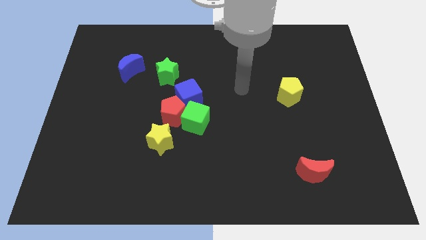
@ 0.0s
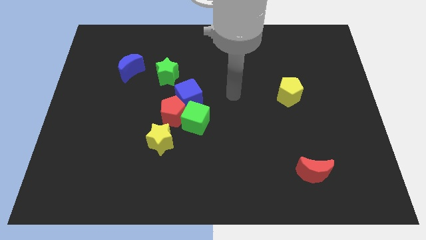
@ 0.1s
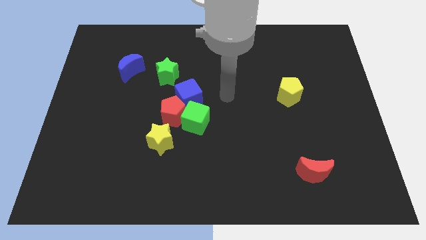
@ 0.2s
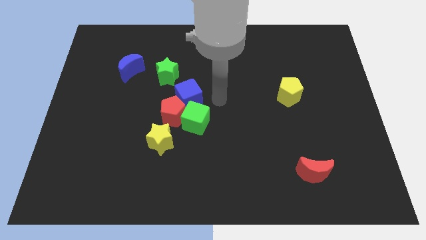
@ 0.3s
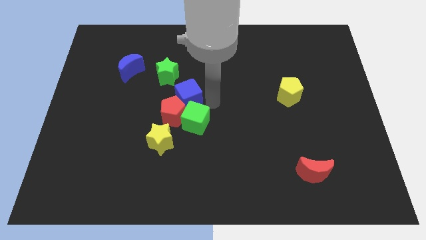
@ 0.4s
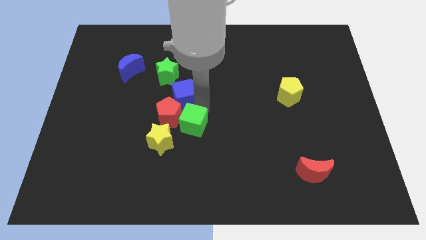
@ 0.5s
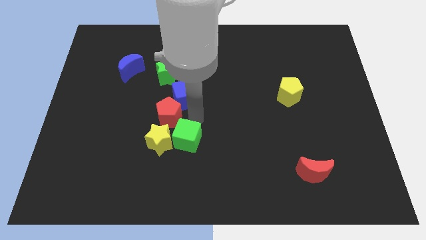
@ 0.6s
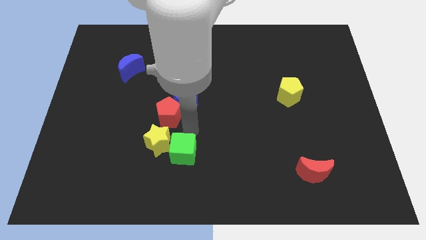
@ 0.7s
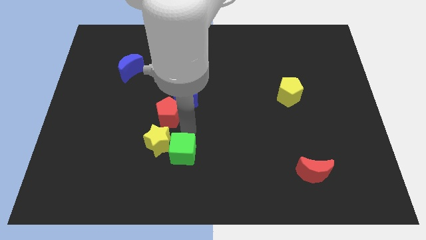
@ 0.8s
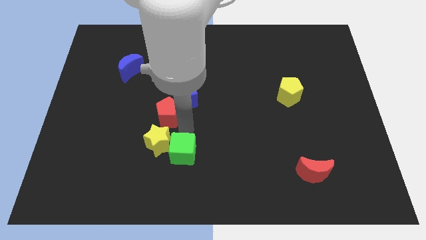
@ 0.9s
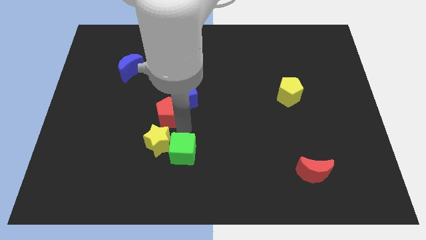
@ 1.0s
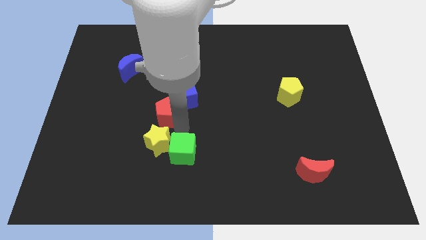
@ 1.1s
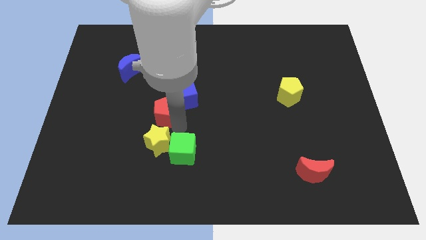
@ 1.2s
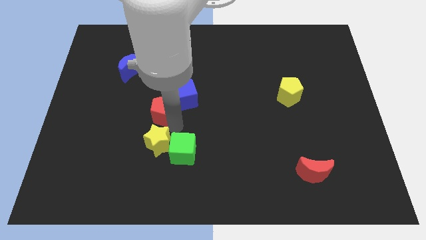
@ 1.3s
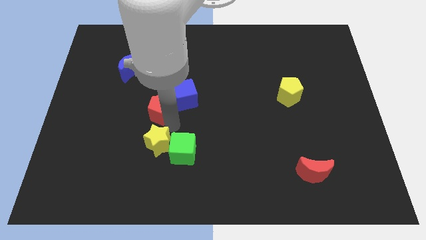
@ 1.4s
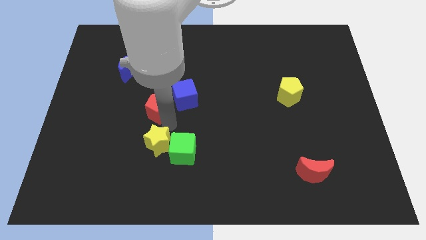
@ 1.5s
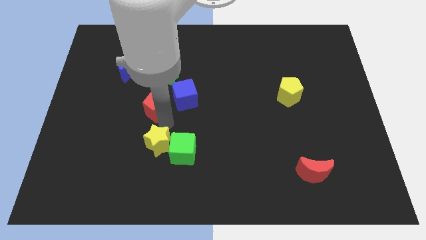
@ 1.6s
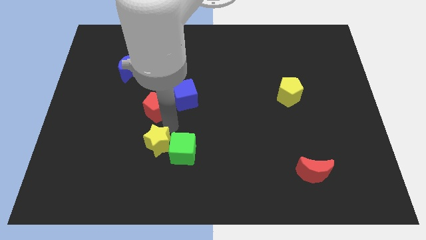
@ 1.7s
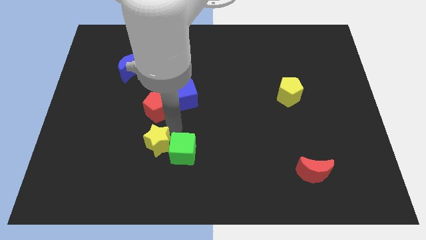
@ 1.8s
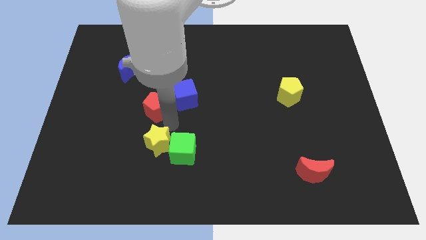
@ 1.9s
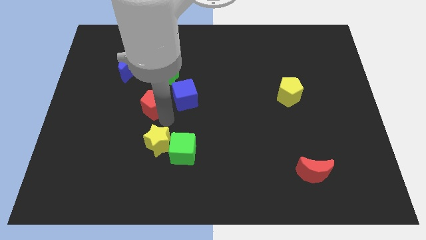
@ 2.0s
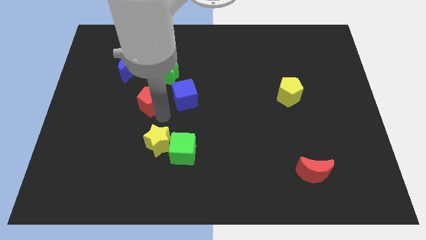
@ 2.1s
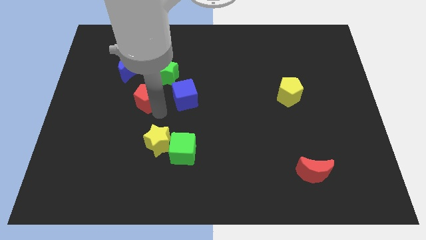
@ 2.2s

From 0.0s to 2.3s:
separate the red pentagon from the green cube, blue cube, and yellow star

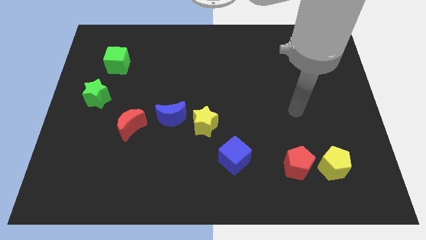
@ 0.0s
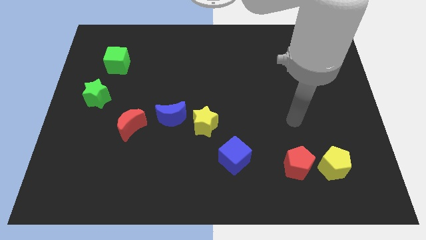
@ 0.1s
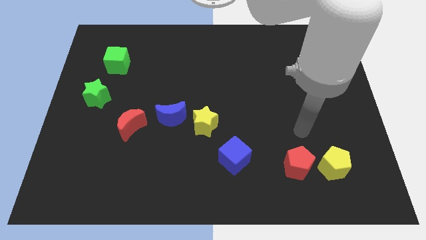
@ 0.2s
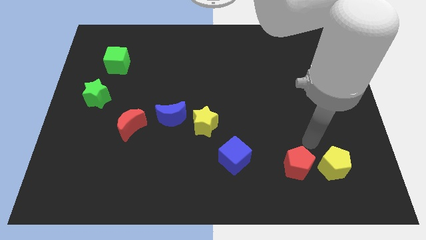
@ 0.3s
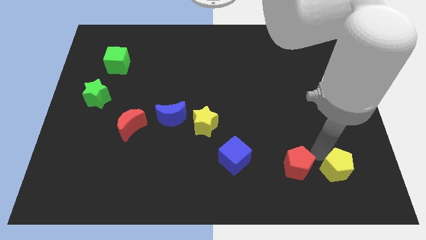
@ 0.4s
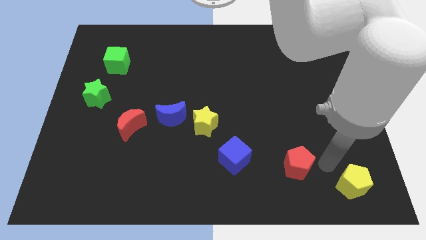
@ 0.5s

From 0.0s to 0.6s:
separate the red pentagon from the yellow pentagon

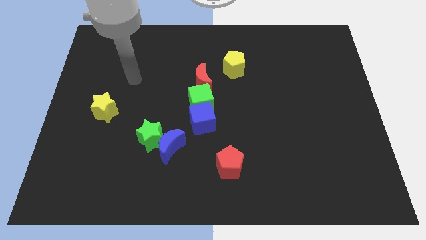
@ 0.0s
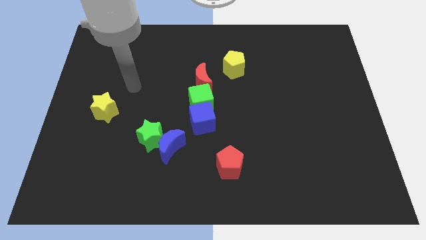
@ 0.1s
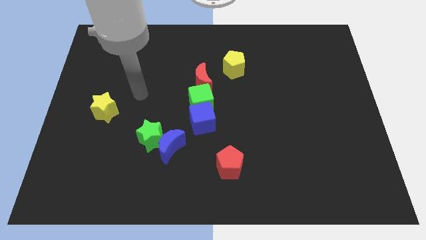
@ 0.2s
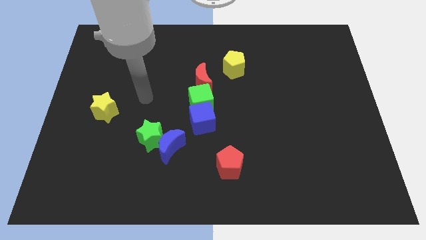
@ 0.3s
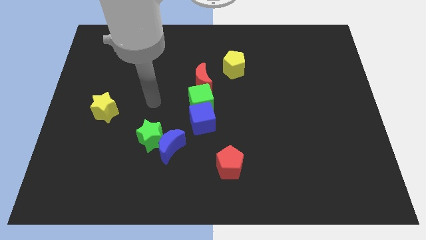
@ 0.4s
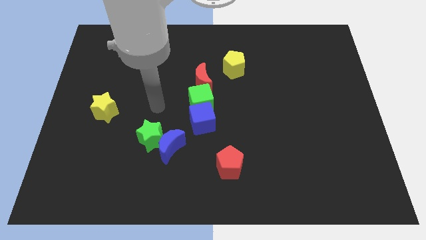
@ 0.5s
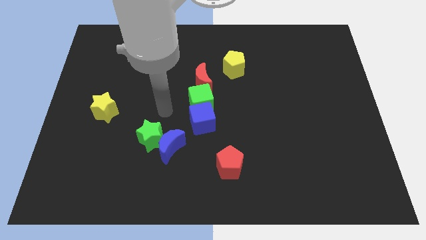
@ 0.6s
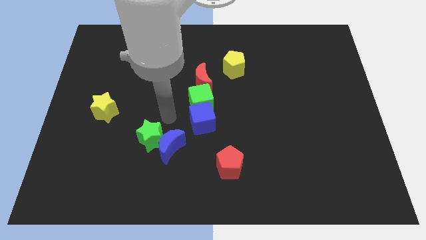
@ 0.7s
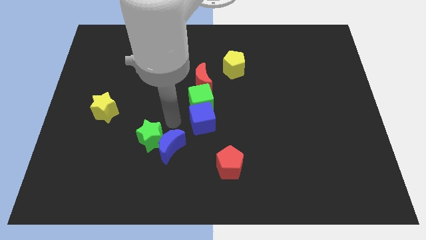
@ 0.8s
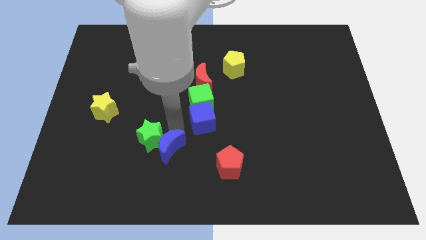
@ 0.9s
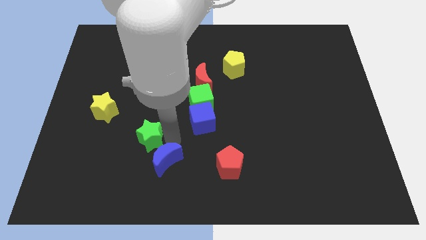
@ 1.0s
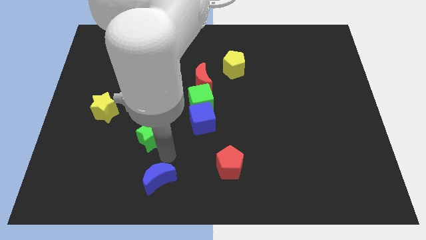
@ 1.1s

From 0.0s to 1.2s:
move the green star away from the blue moon

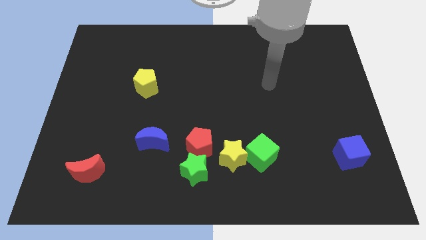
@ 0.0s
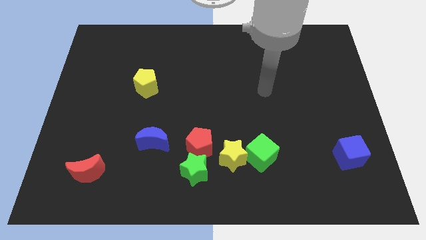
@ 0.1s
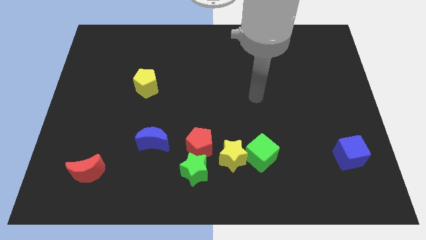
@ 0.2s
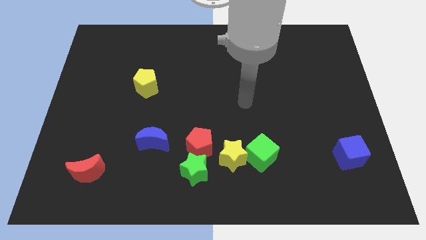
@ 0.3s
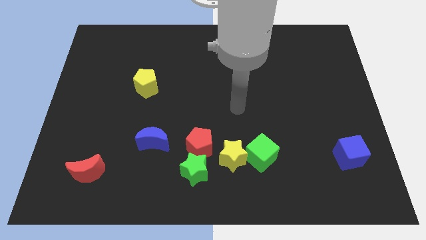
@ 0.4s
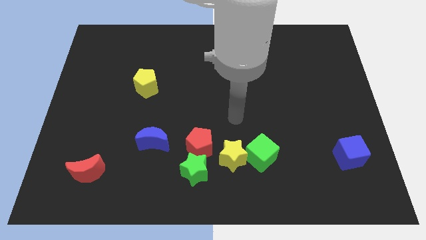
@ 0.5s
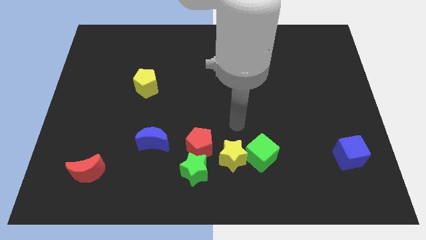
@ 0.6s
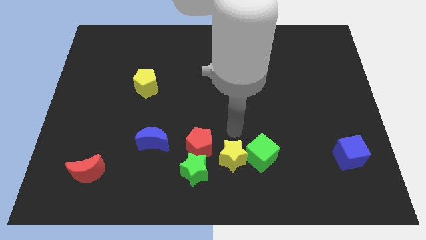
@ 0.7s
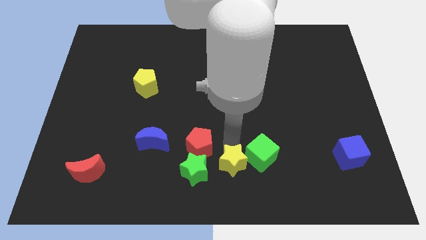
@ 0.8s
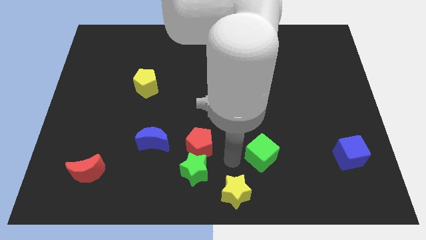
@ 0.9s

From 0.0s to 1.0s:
separate the green cube from the yellow star

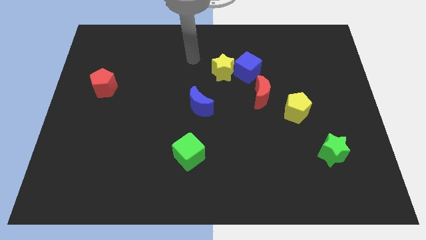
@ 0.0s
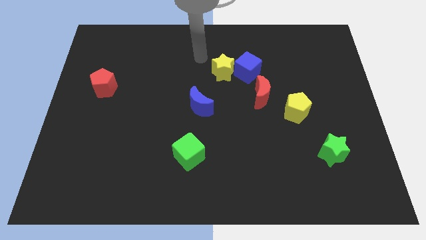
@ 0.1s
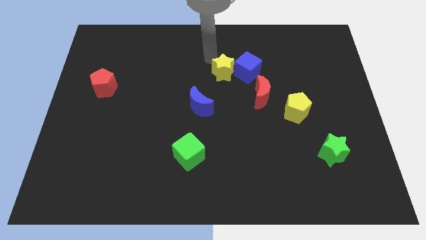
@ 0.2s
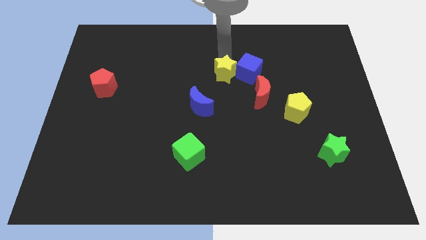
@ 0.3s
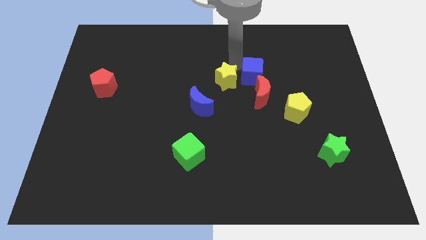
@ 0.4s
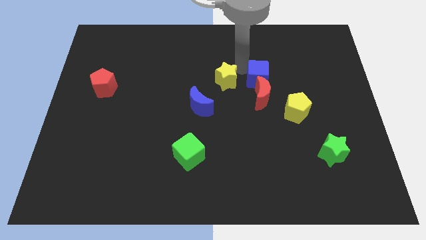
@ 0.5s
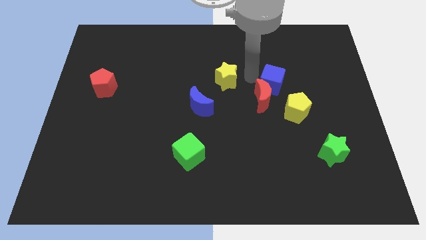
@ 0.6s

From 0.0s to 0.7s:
move the yellow star away from the blue cube

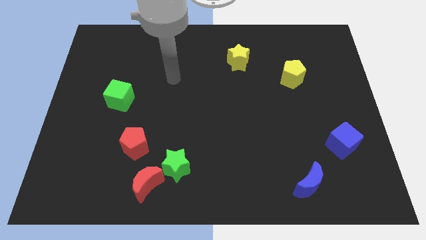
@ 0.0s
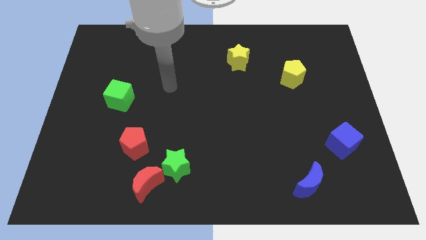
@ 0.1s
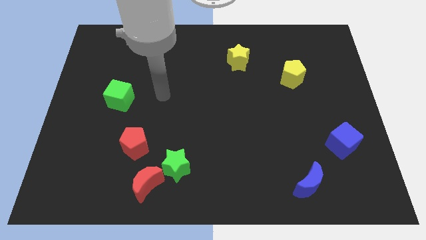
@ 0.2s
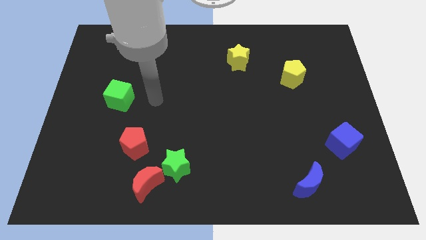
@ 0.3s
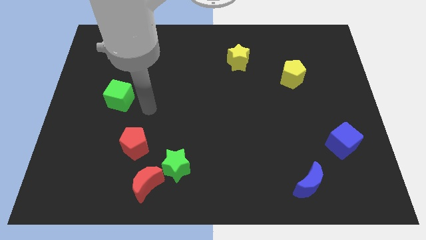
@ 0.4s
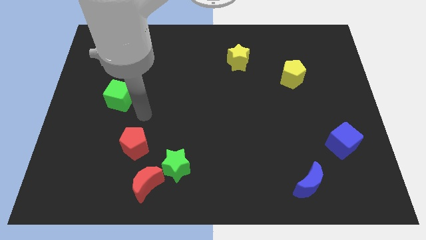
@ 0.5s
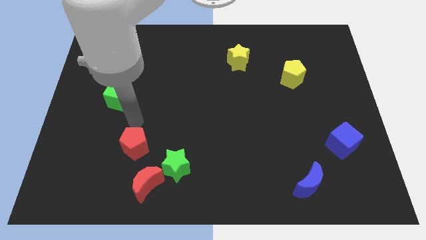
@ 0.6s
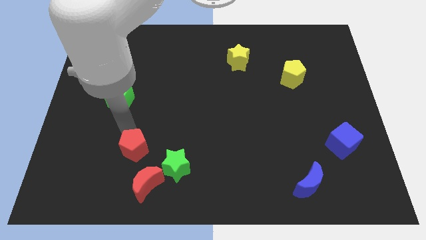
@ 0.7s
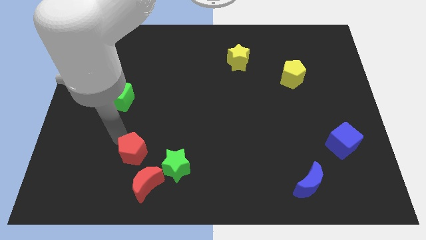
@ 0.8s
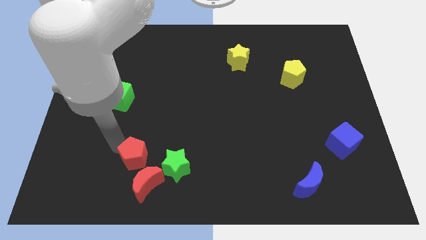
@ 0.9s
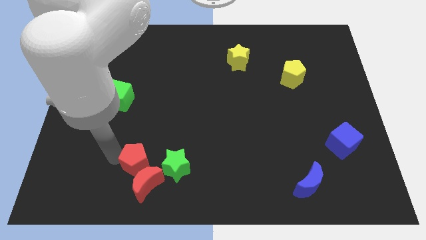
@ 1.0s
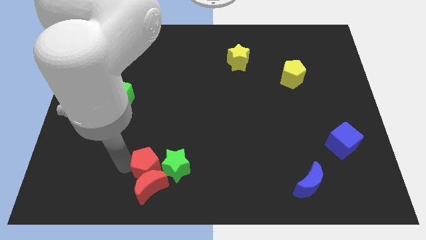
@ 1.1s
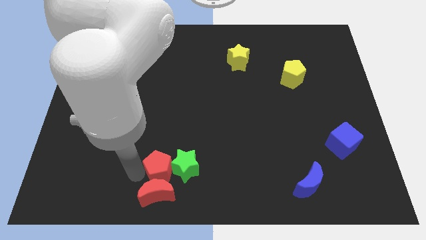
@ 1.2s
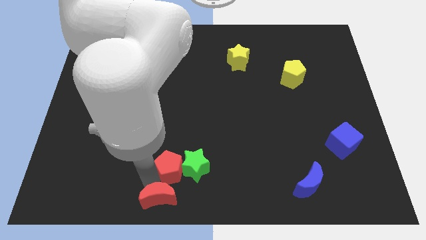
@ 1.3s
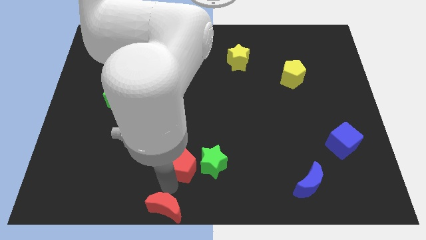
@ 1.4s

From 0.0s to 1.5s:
move the green star away from the red moon

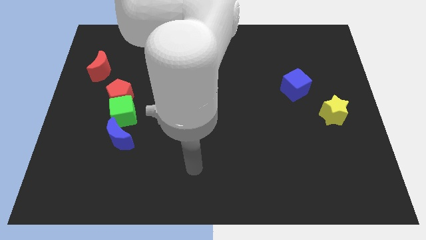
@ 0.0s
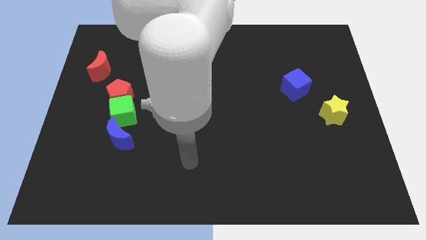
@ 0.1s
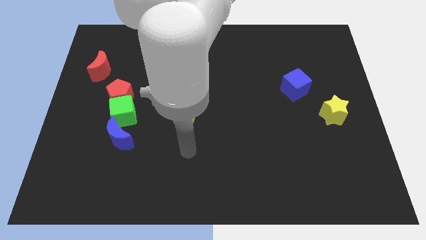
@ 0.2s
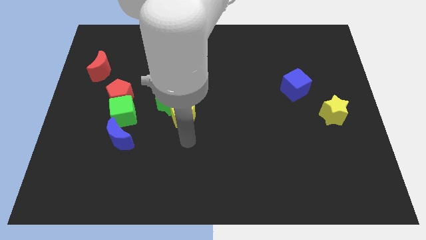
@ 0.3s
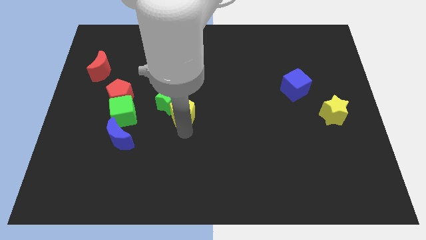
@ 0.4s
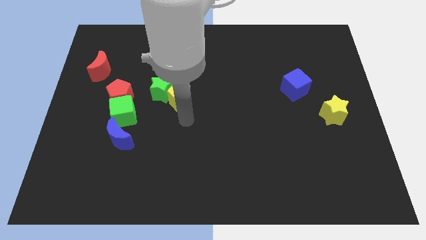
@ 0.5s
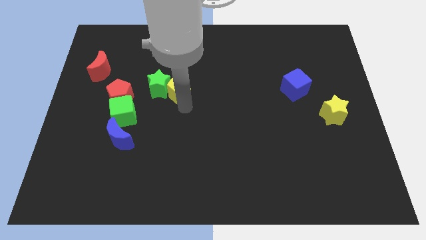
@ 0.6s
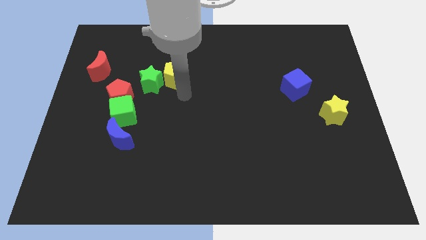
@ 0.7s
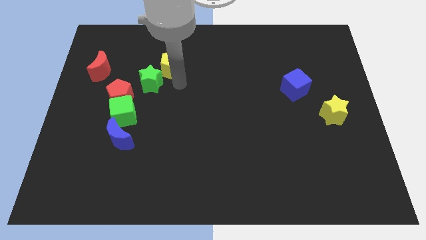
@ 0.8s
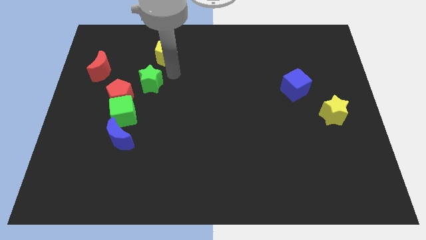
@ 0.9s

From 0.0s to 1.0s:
separate the green star from the yellow pentagon

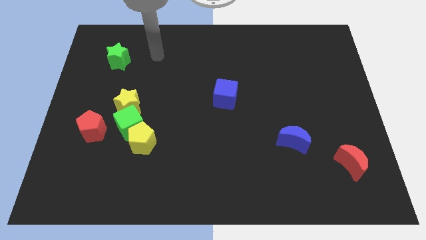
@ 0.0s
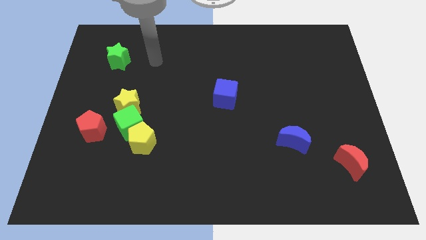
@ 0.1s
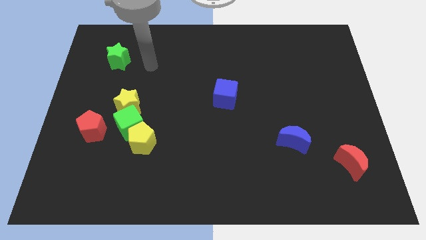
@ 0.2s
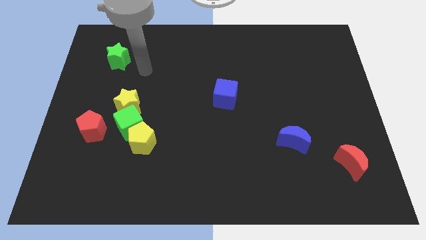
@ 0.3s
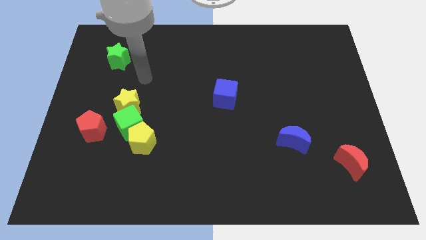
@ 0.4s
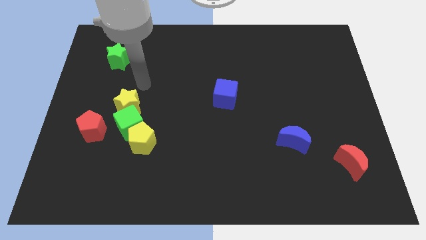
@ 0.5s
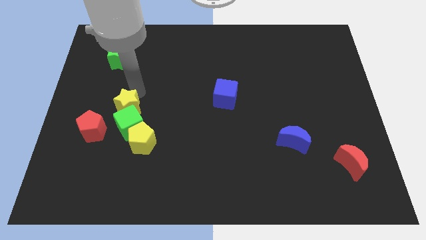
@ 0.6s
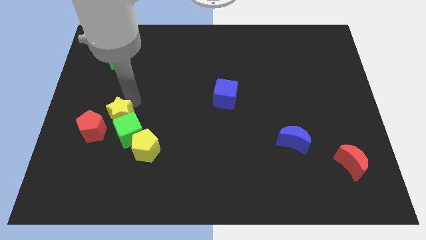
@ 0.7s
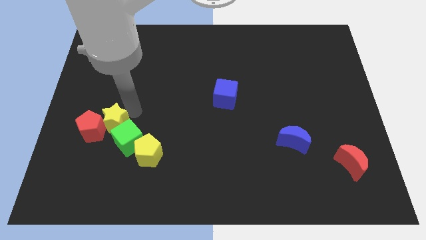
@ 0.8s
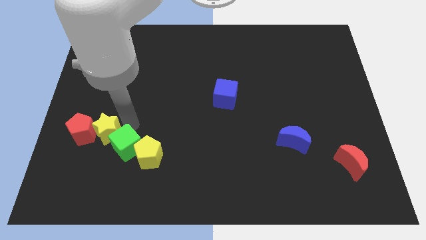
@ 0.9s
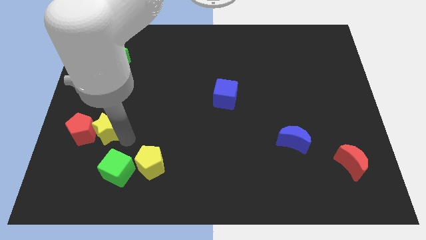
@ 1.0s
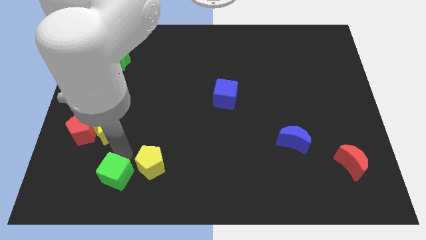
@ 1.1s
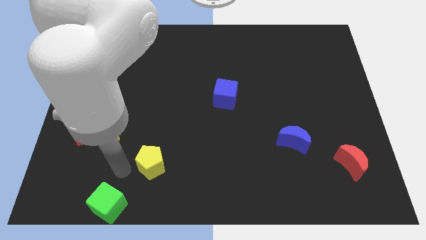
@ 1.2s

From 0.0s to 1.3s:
separate the yellow pentagon from the green cube
